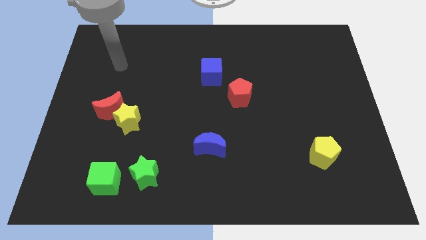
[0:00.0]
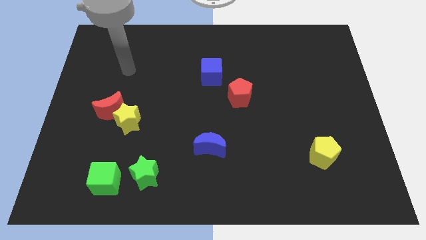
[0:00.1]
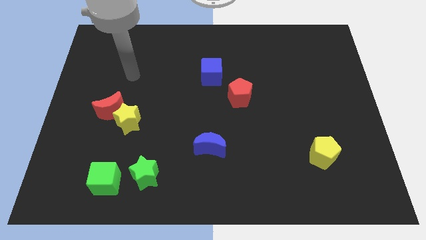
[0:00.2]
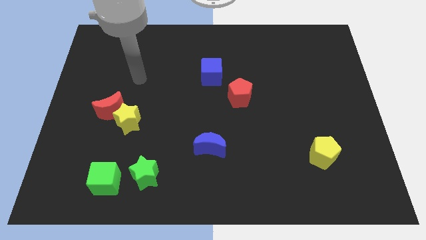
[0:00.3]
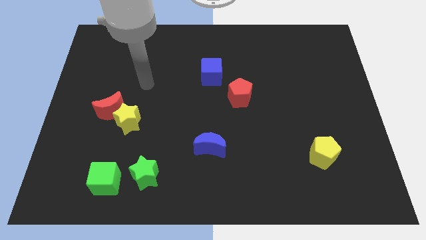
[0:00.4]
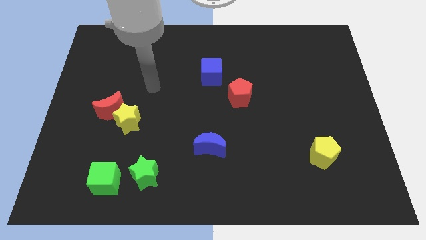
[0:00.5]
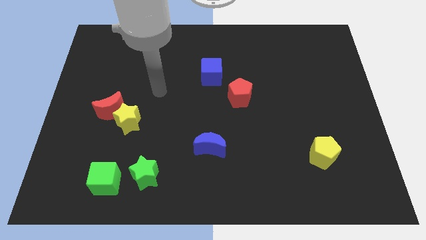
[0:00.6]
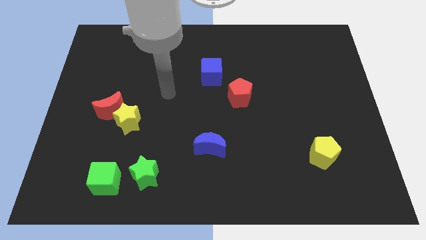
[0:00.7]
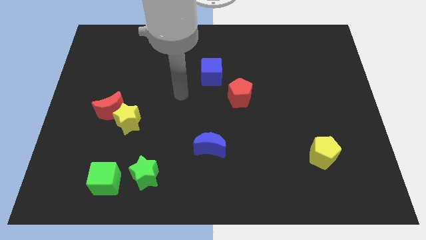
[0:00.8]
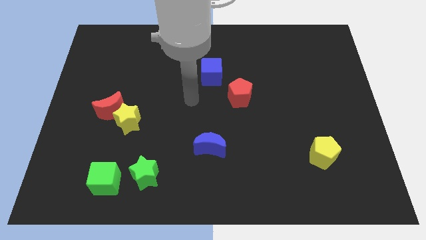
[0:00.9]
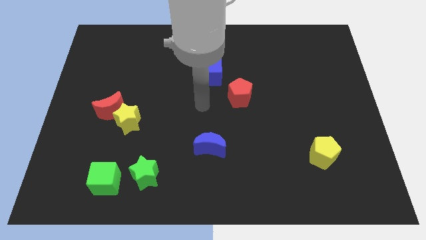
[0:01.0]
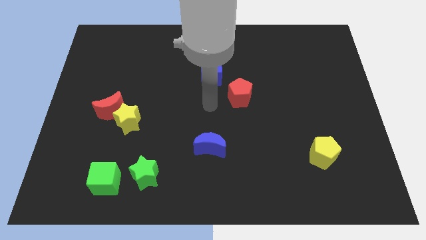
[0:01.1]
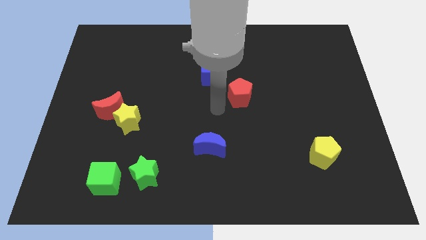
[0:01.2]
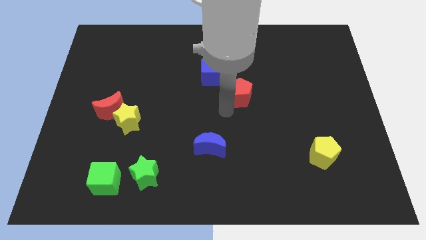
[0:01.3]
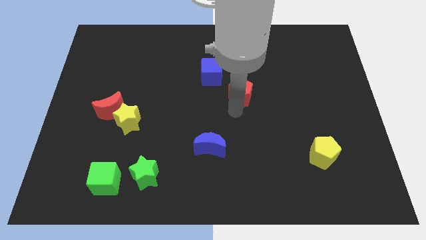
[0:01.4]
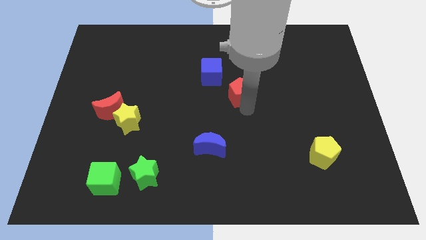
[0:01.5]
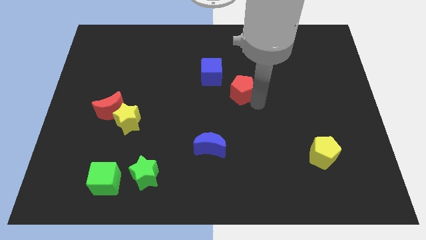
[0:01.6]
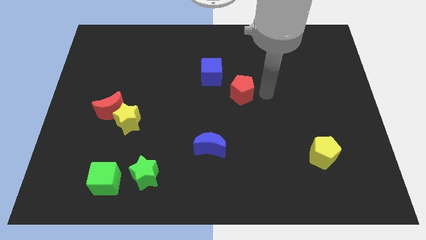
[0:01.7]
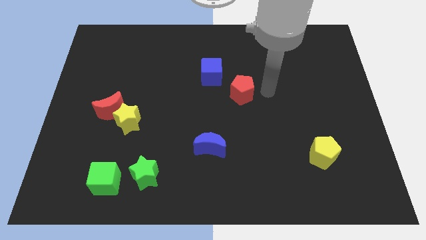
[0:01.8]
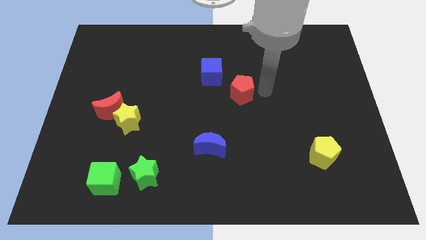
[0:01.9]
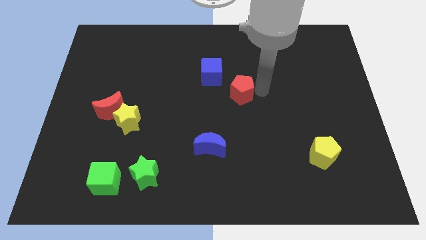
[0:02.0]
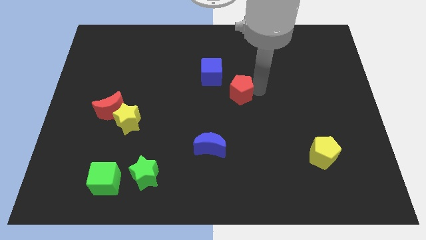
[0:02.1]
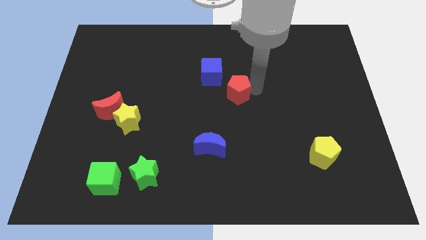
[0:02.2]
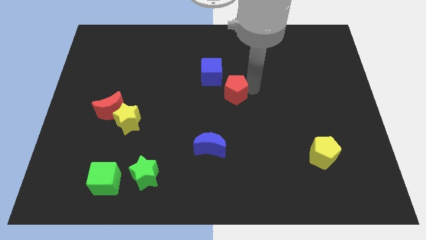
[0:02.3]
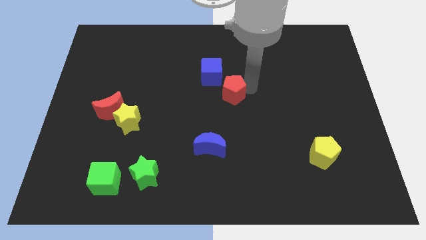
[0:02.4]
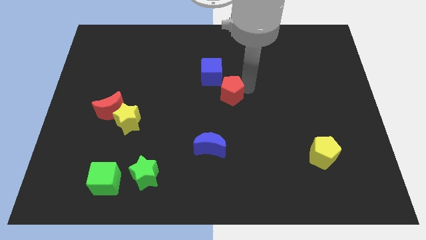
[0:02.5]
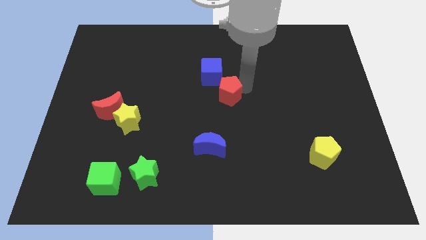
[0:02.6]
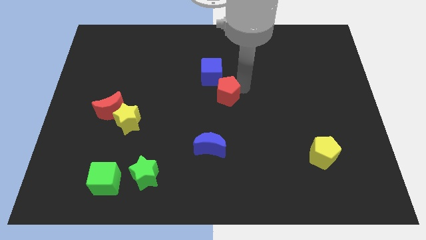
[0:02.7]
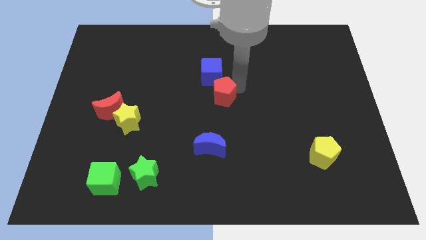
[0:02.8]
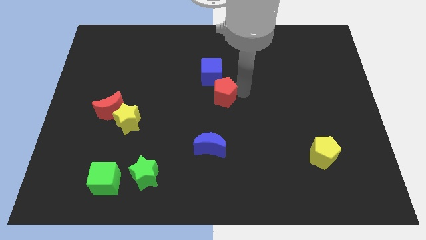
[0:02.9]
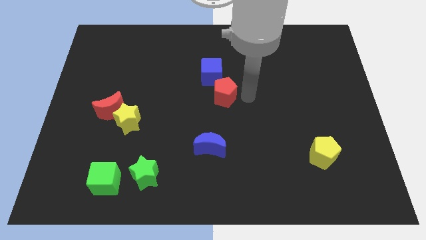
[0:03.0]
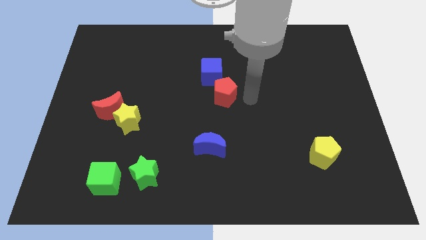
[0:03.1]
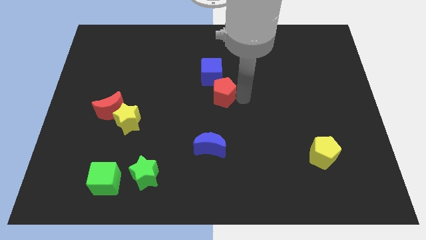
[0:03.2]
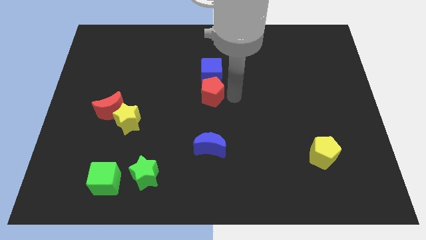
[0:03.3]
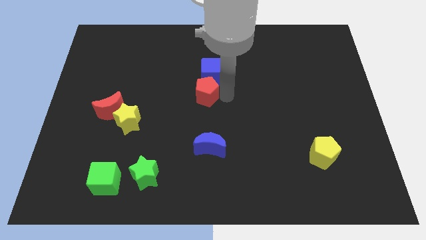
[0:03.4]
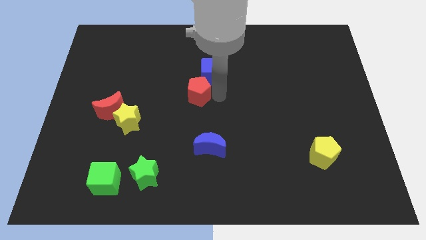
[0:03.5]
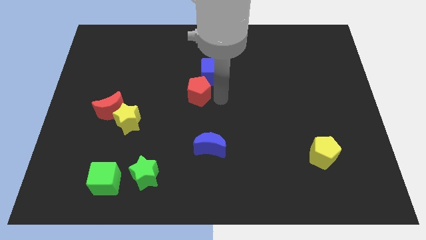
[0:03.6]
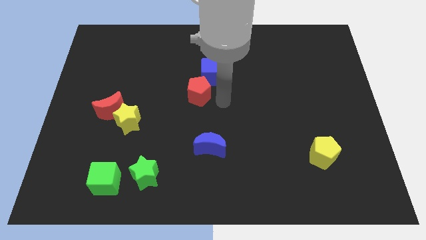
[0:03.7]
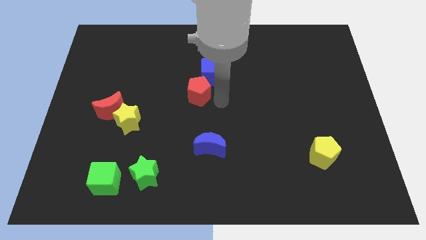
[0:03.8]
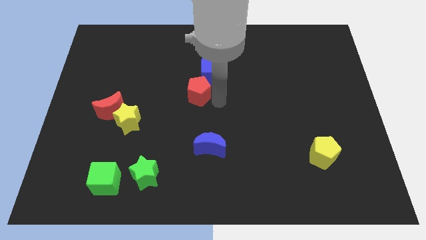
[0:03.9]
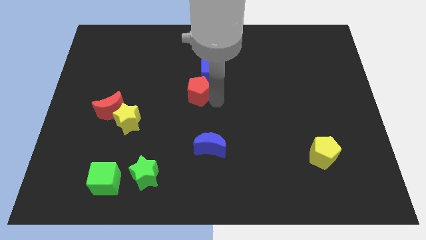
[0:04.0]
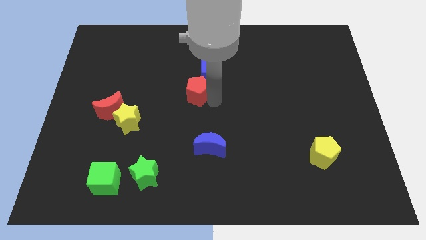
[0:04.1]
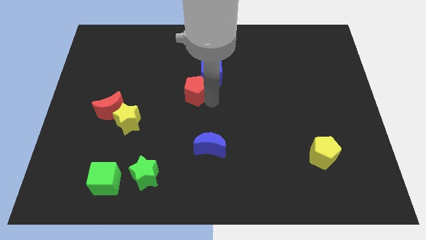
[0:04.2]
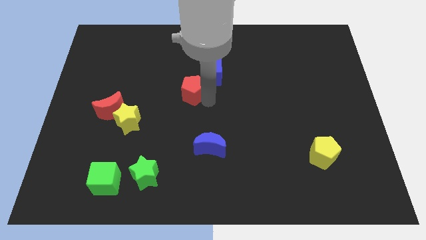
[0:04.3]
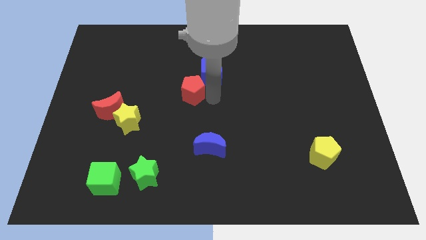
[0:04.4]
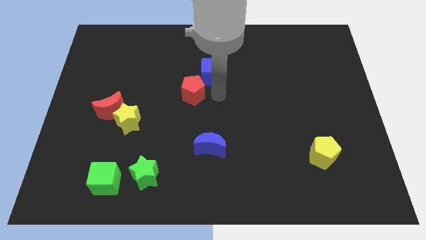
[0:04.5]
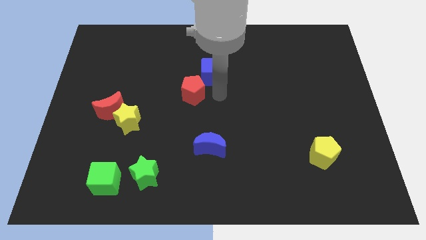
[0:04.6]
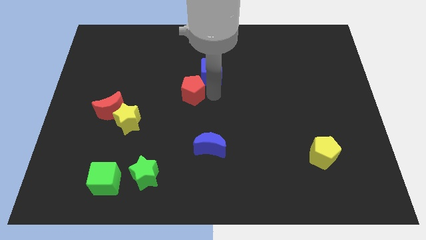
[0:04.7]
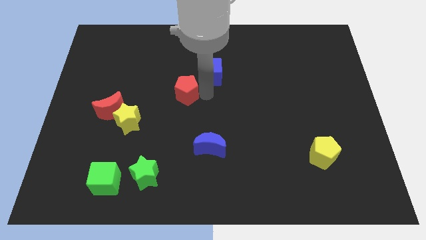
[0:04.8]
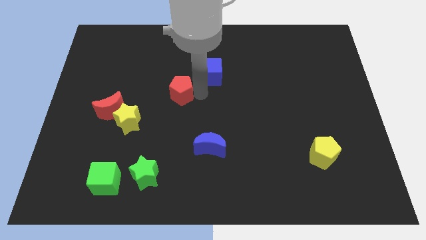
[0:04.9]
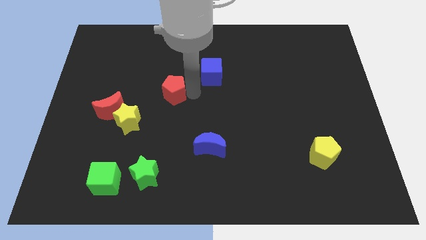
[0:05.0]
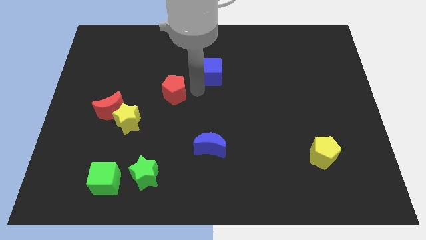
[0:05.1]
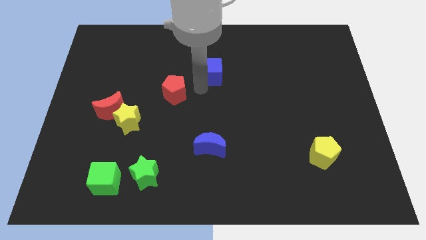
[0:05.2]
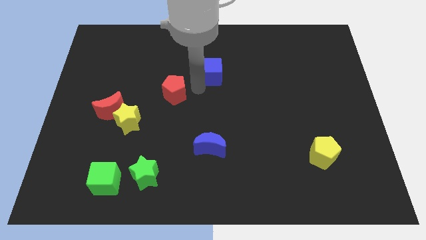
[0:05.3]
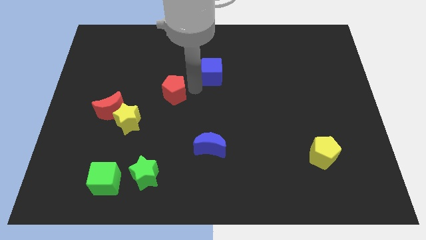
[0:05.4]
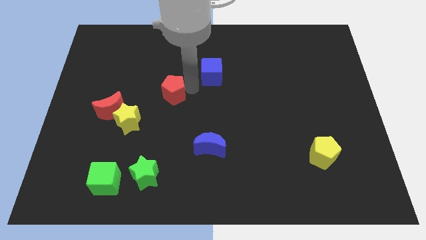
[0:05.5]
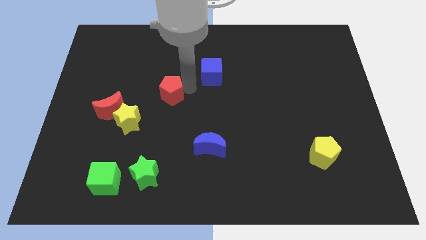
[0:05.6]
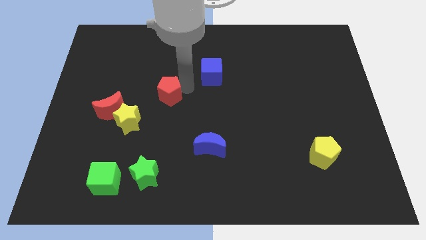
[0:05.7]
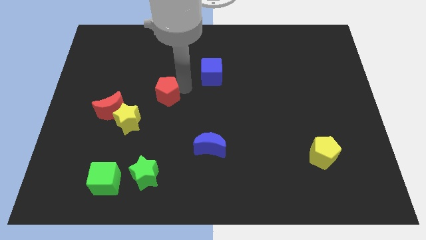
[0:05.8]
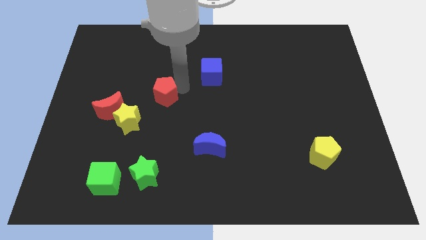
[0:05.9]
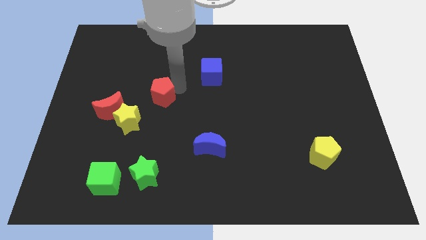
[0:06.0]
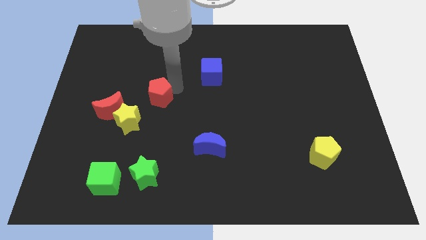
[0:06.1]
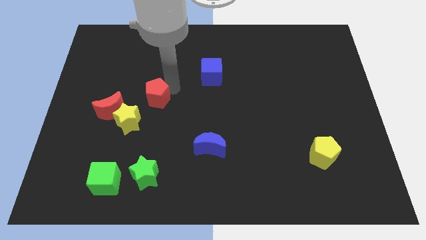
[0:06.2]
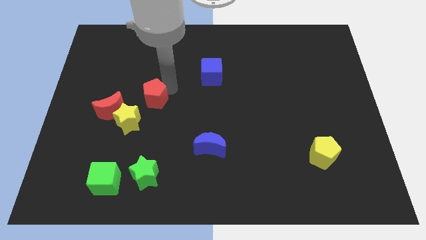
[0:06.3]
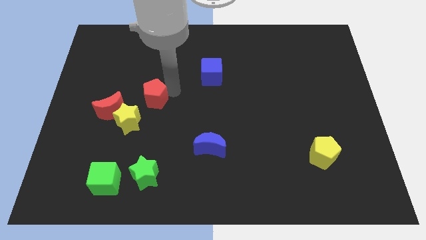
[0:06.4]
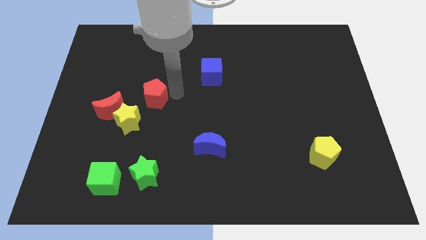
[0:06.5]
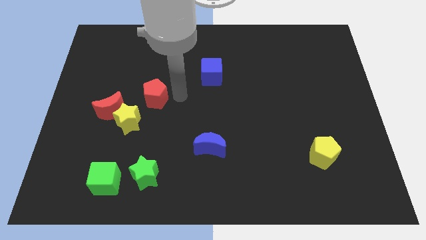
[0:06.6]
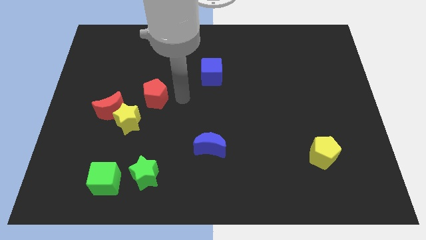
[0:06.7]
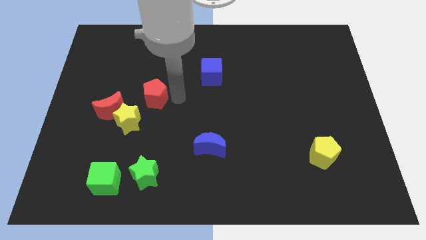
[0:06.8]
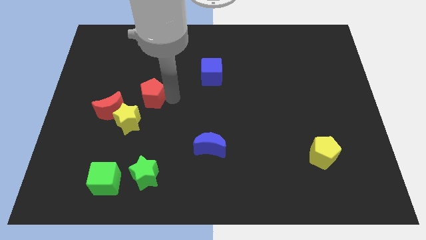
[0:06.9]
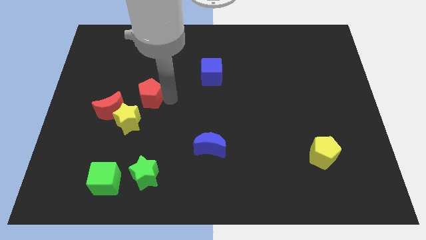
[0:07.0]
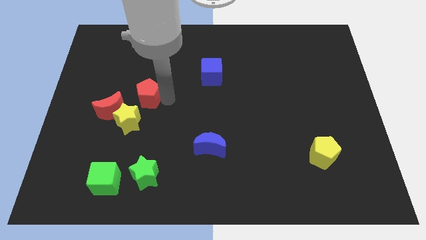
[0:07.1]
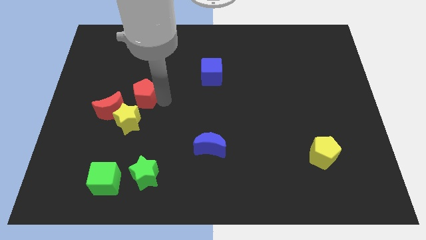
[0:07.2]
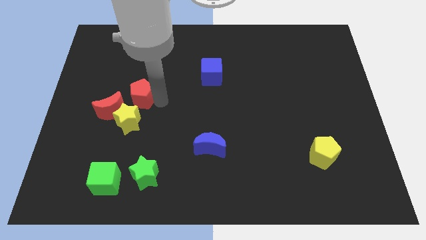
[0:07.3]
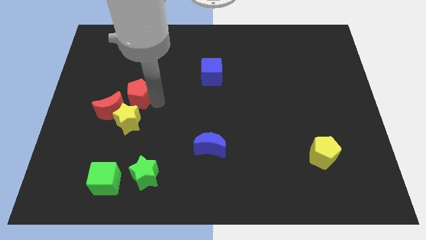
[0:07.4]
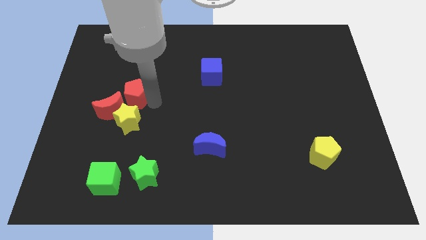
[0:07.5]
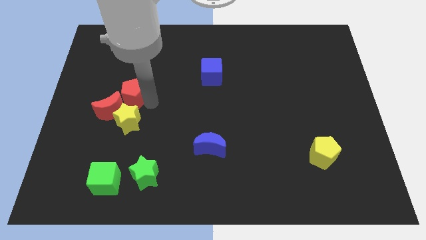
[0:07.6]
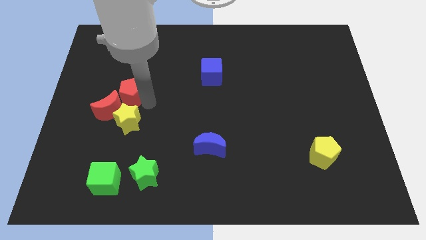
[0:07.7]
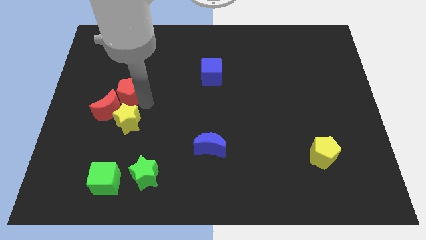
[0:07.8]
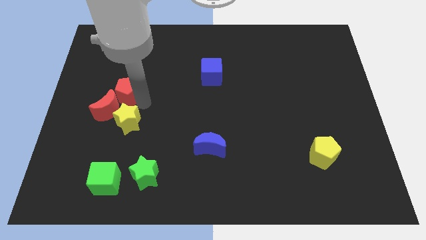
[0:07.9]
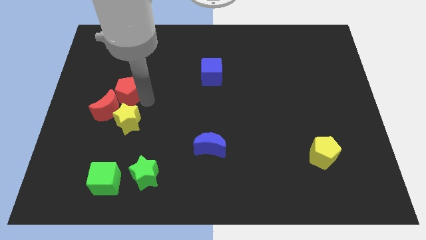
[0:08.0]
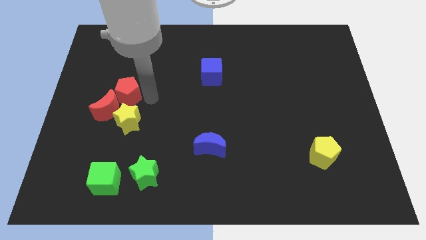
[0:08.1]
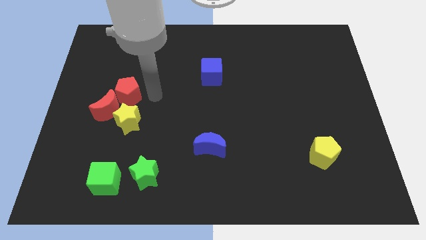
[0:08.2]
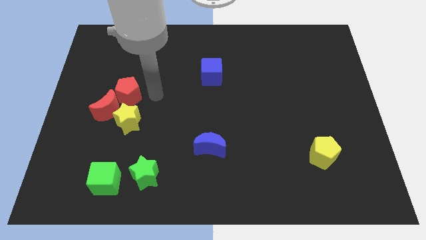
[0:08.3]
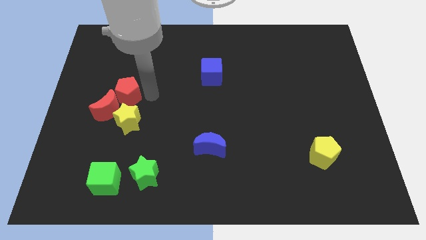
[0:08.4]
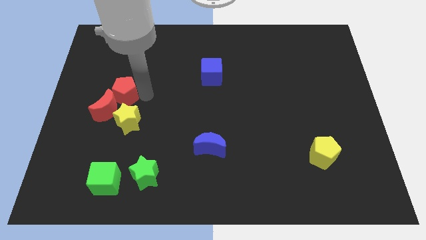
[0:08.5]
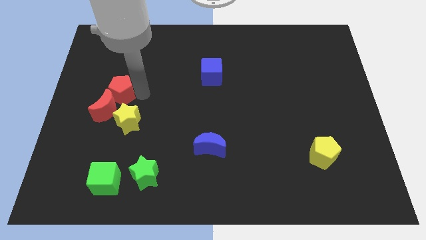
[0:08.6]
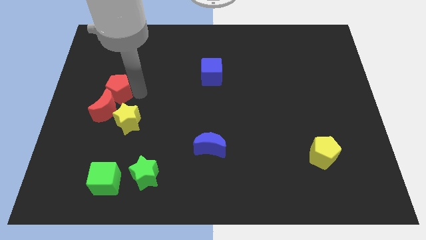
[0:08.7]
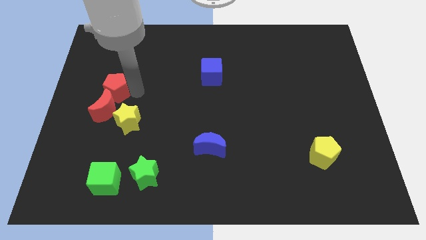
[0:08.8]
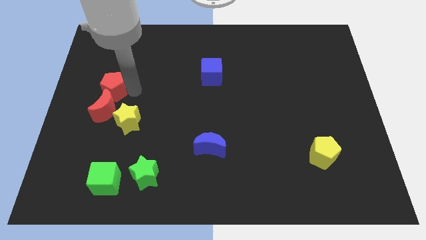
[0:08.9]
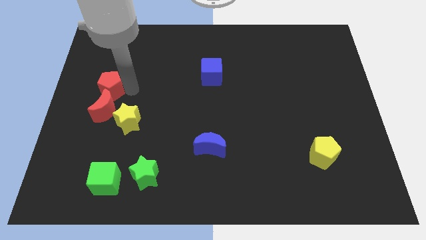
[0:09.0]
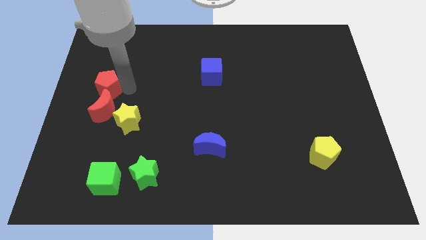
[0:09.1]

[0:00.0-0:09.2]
put the red pentagon to the left side of the board
